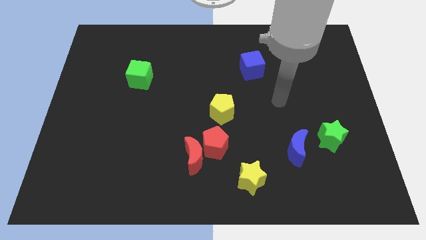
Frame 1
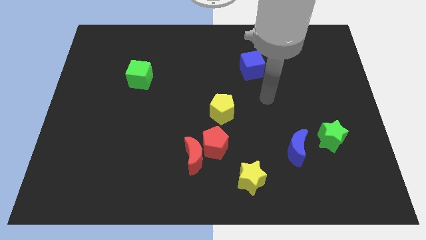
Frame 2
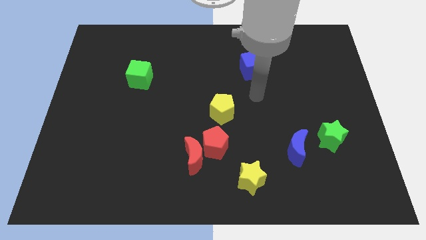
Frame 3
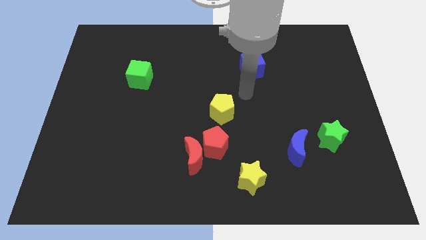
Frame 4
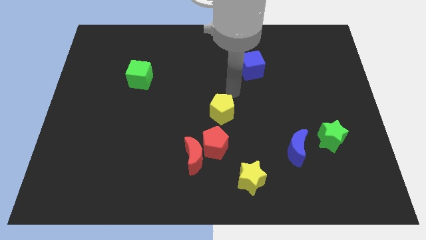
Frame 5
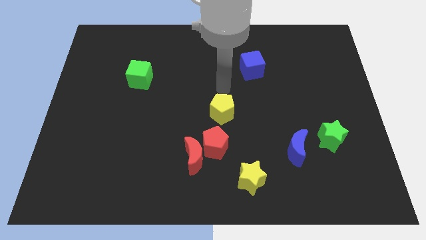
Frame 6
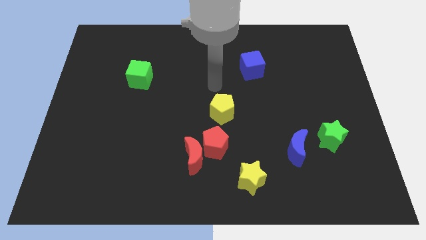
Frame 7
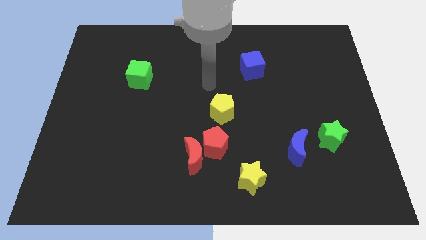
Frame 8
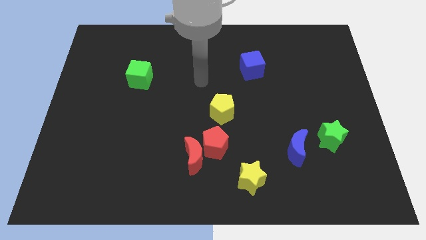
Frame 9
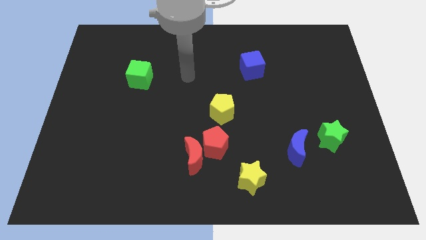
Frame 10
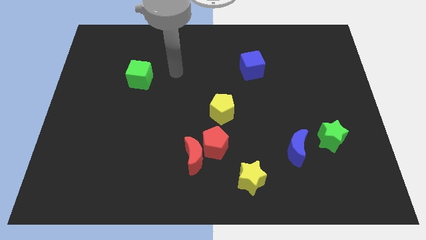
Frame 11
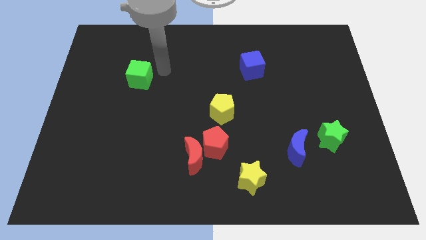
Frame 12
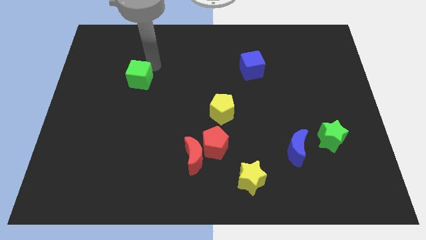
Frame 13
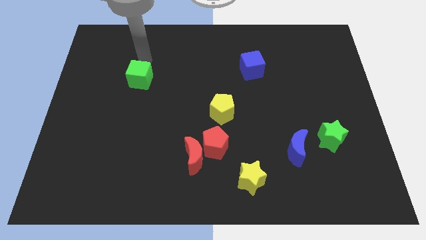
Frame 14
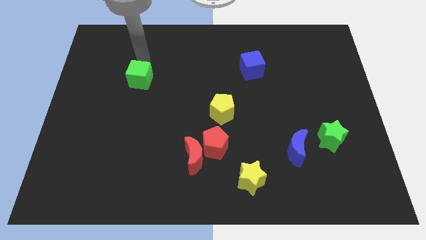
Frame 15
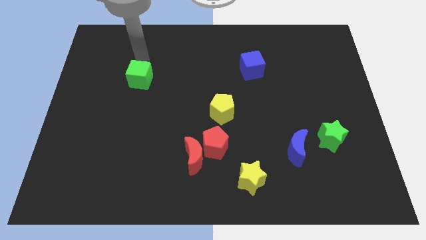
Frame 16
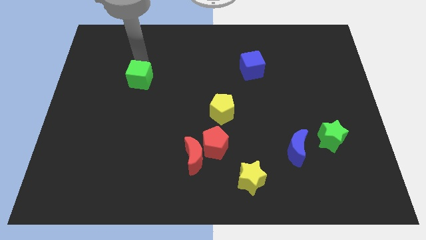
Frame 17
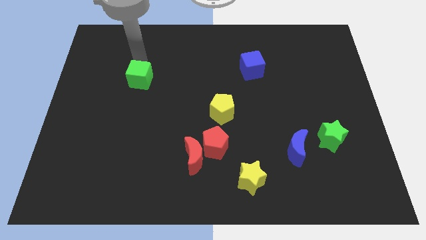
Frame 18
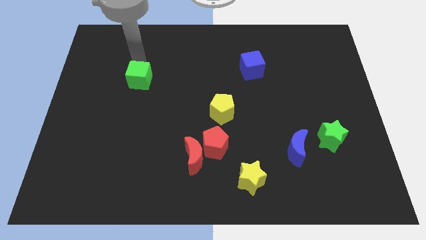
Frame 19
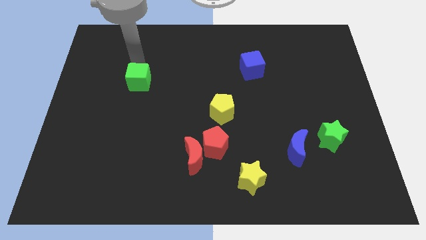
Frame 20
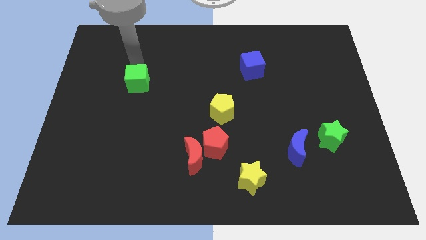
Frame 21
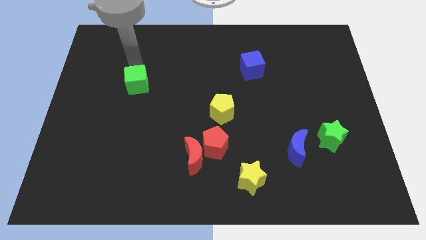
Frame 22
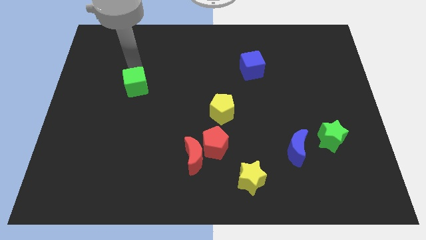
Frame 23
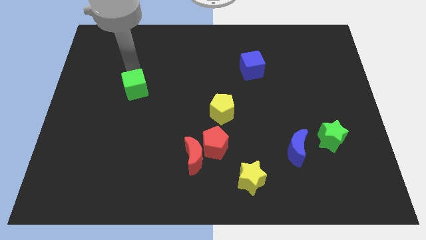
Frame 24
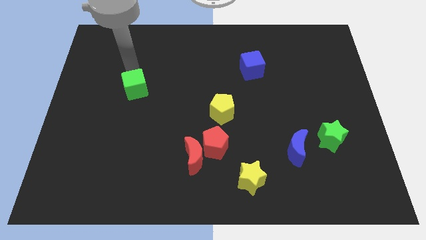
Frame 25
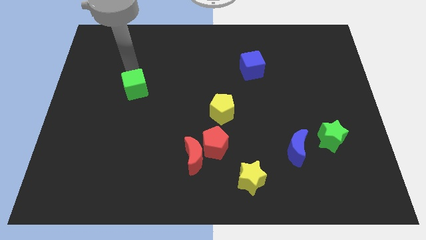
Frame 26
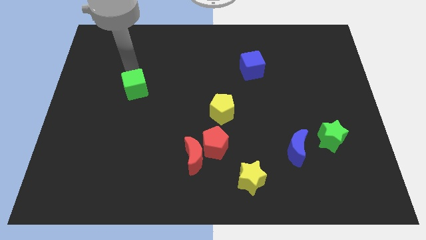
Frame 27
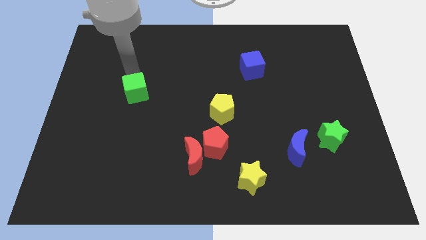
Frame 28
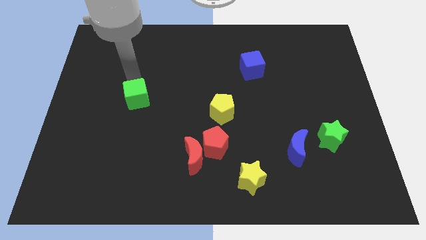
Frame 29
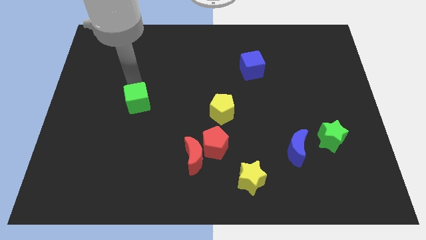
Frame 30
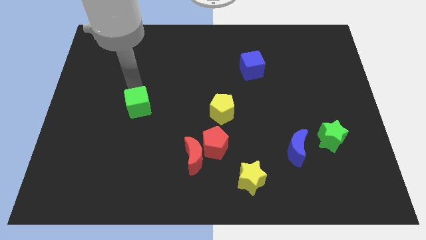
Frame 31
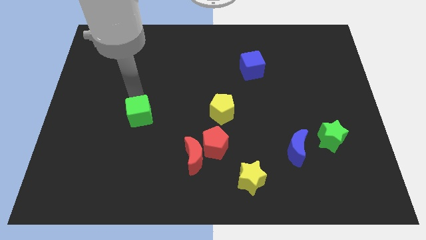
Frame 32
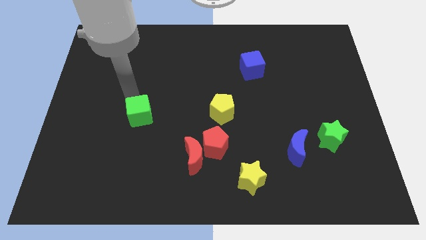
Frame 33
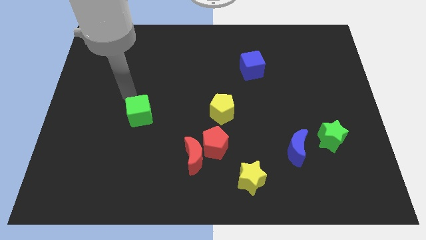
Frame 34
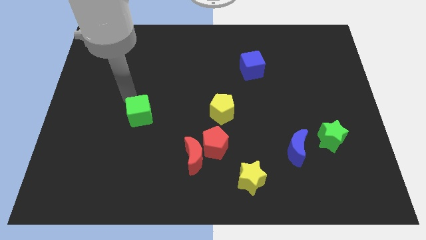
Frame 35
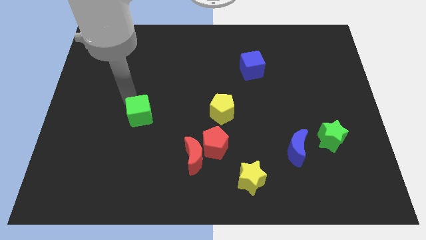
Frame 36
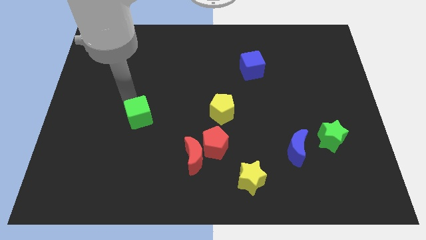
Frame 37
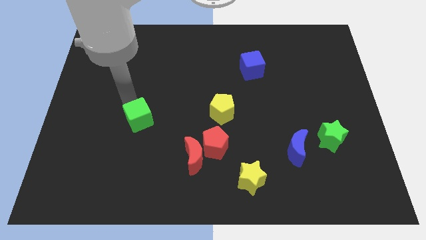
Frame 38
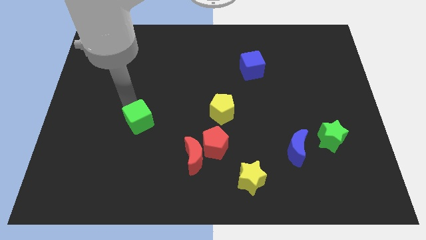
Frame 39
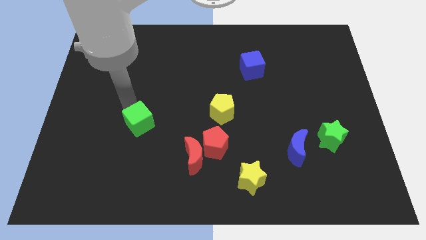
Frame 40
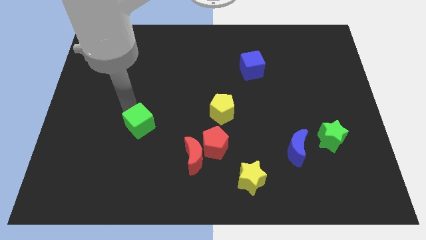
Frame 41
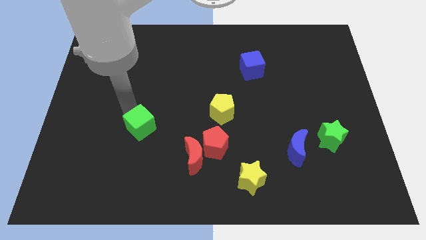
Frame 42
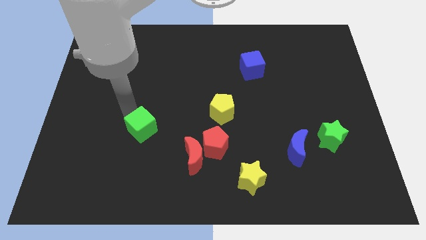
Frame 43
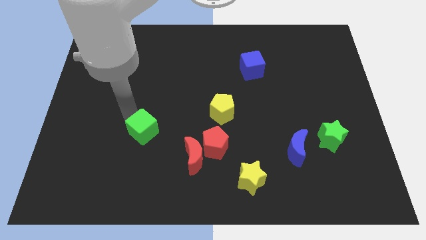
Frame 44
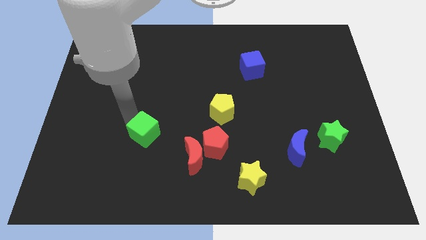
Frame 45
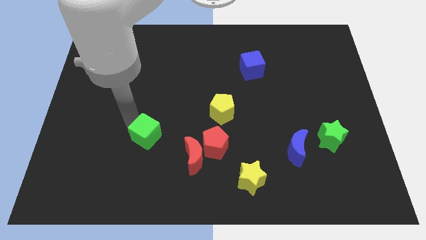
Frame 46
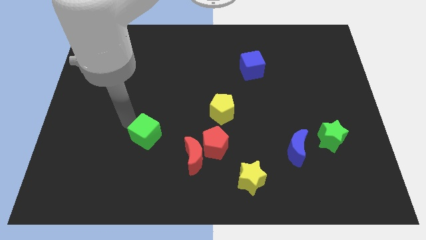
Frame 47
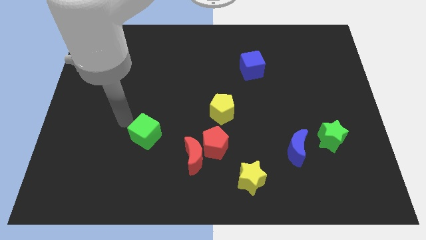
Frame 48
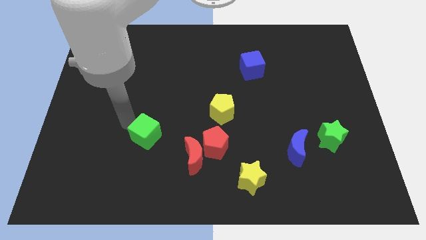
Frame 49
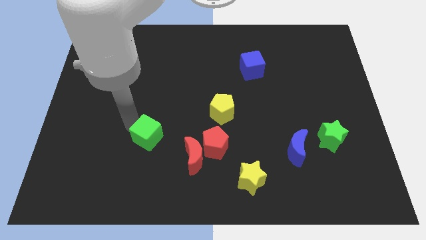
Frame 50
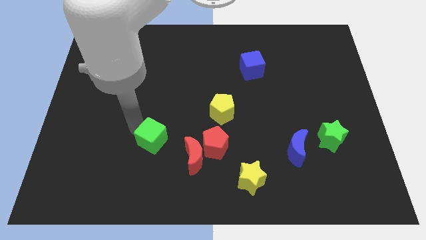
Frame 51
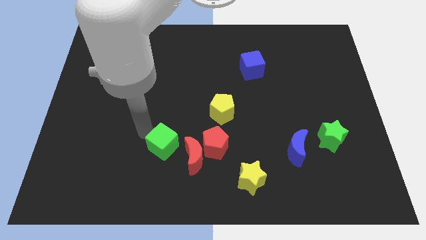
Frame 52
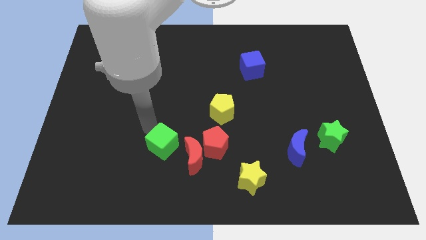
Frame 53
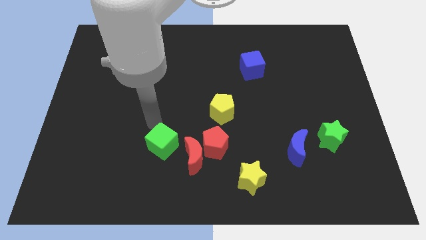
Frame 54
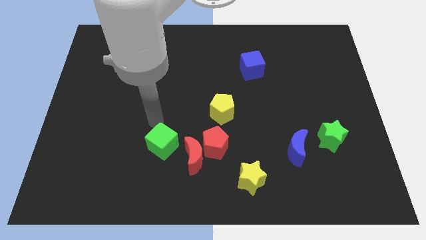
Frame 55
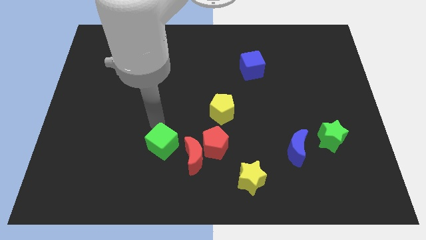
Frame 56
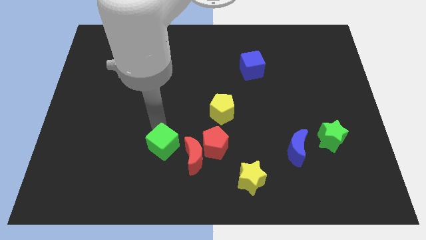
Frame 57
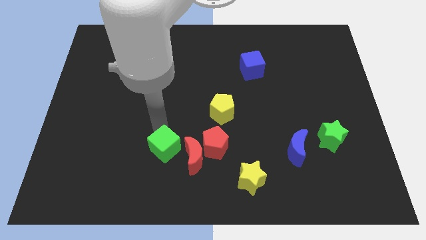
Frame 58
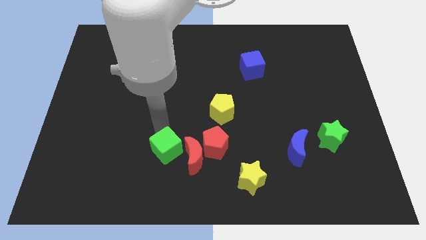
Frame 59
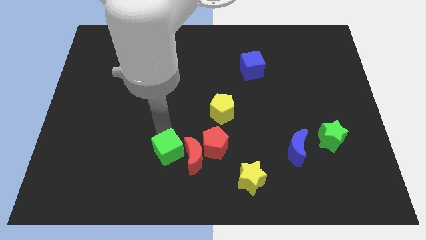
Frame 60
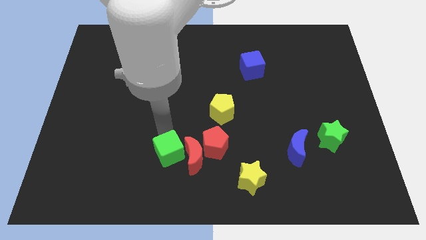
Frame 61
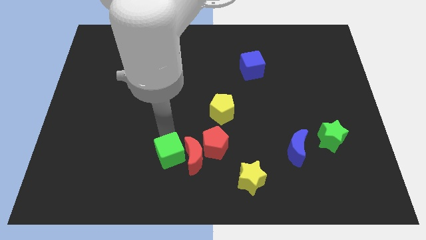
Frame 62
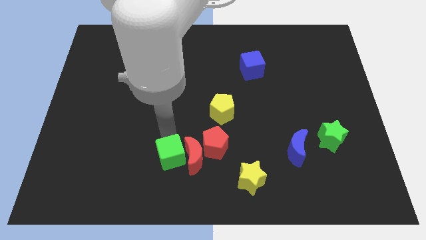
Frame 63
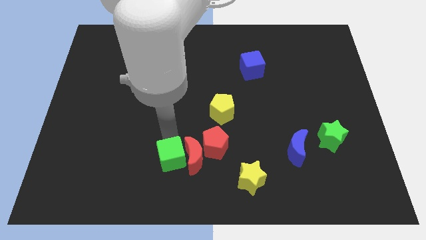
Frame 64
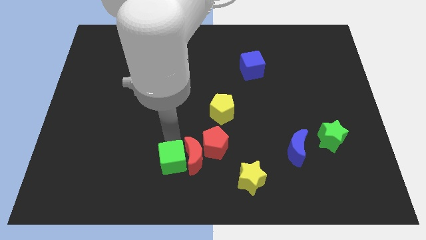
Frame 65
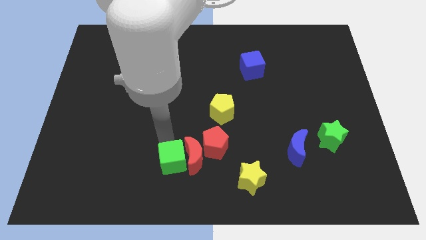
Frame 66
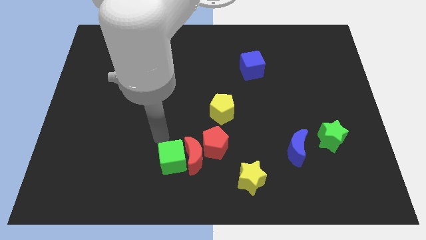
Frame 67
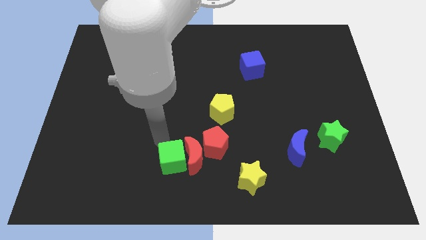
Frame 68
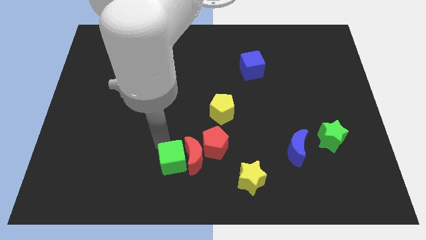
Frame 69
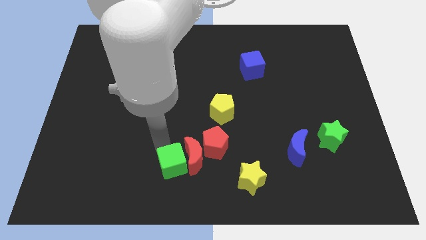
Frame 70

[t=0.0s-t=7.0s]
put the green cube to the bottom side

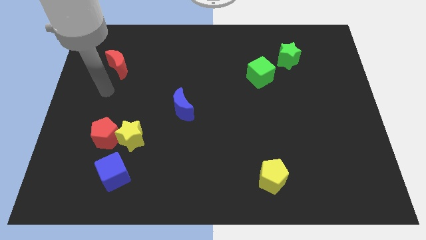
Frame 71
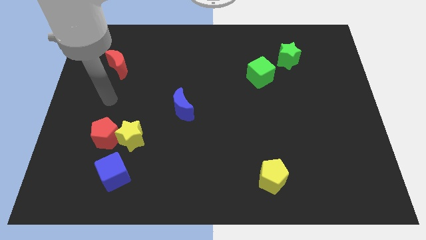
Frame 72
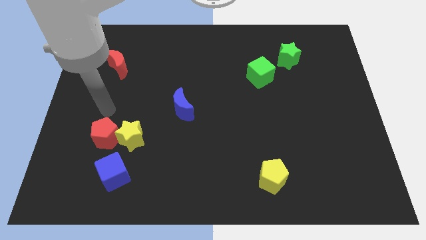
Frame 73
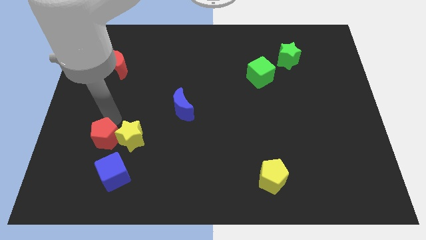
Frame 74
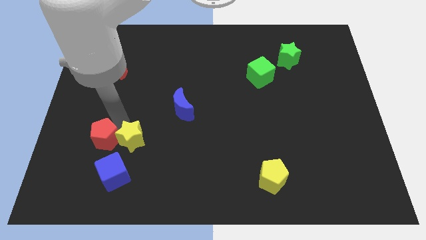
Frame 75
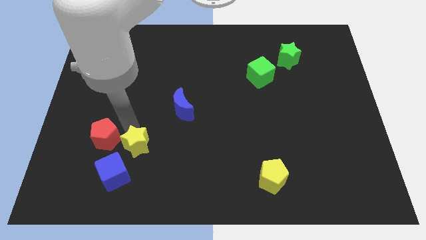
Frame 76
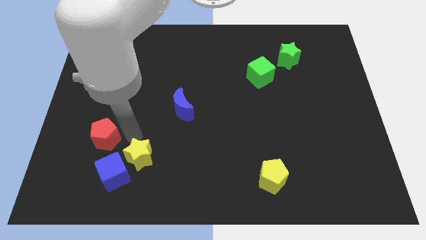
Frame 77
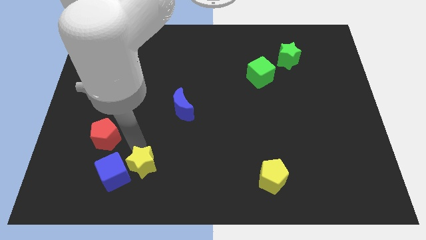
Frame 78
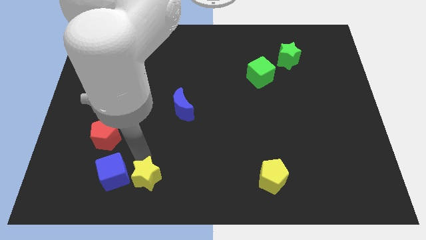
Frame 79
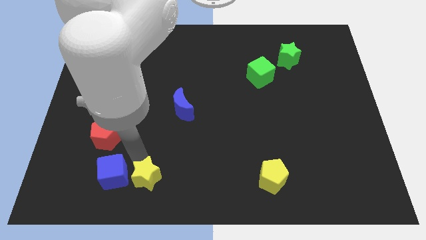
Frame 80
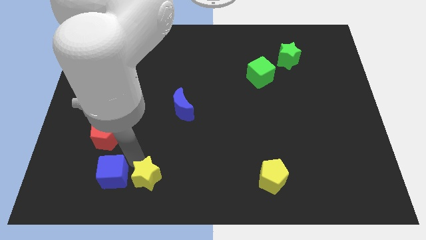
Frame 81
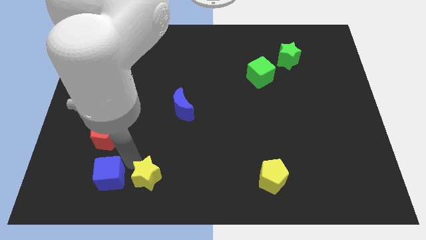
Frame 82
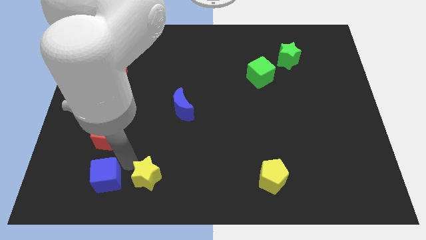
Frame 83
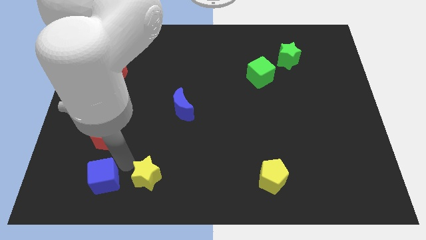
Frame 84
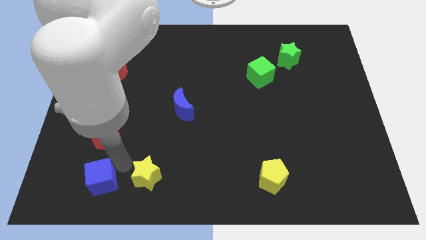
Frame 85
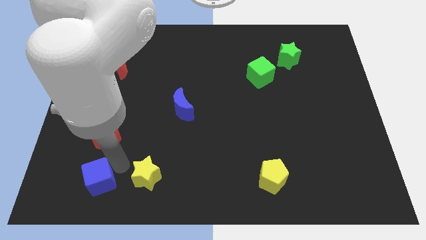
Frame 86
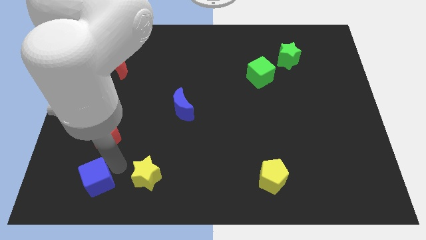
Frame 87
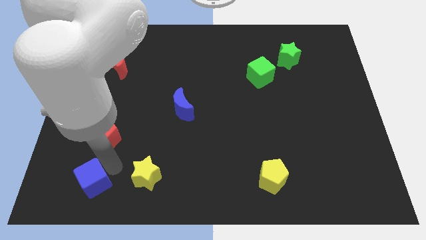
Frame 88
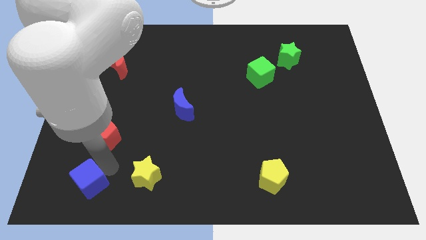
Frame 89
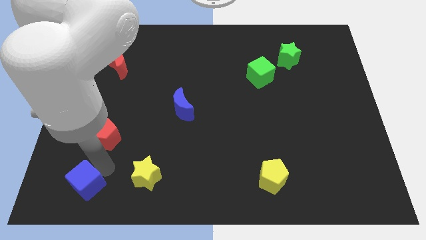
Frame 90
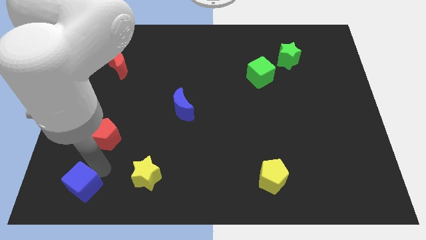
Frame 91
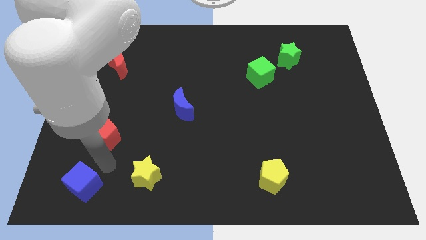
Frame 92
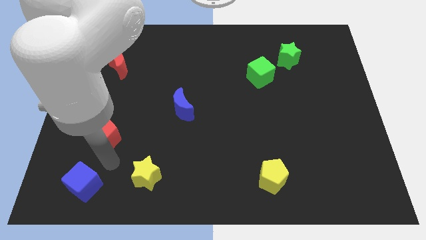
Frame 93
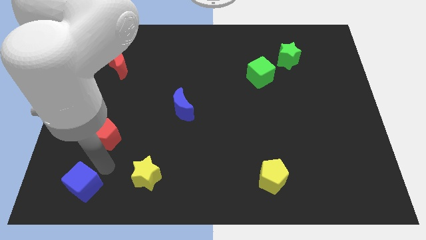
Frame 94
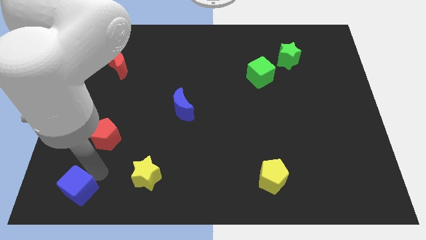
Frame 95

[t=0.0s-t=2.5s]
push the blue cube to the bottom left corner
